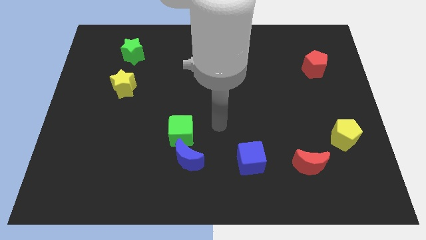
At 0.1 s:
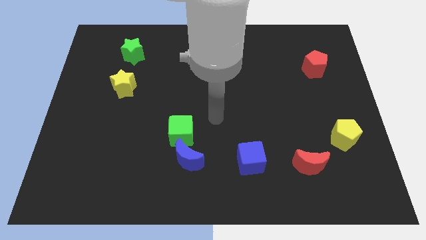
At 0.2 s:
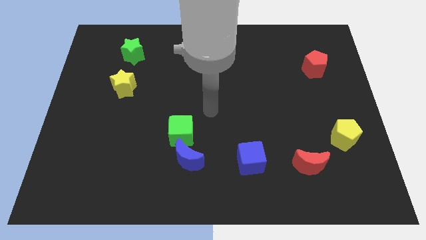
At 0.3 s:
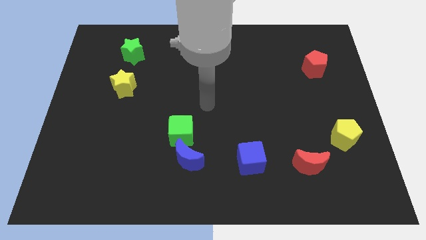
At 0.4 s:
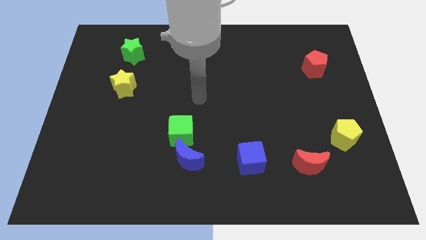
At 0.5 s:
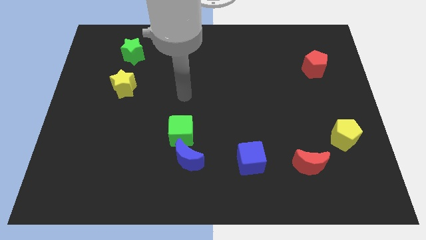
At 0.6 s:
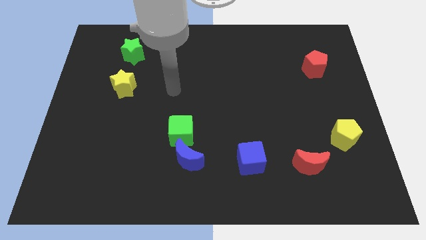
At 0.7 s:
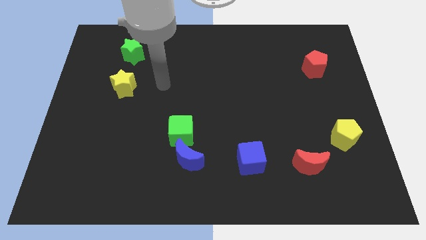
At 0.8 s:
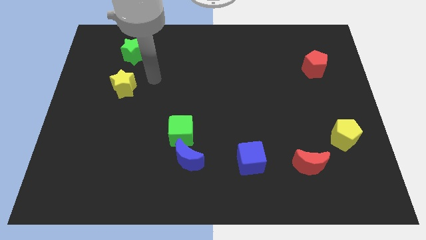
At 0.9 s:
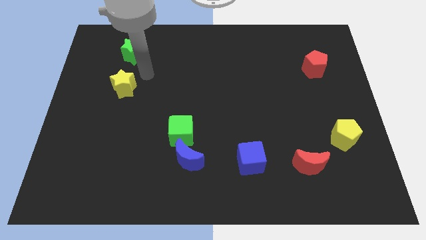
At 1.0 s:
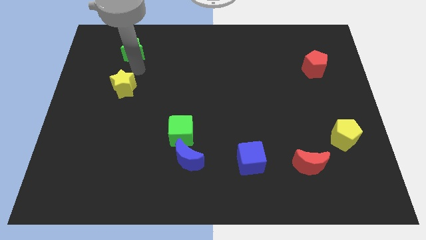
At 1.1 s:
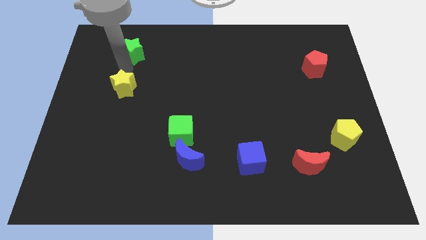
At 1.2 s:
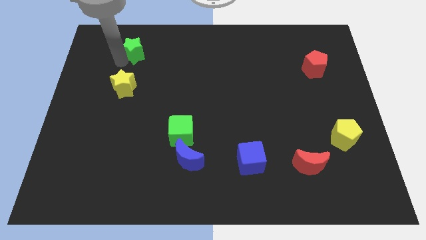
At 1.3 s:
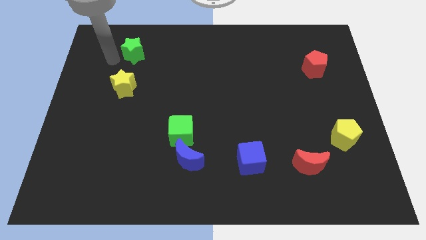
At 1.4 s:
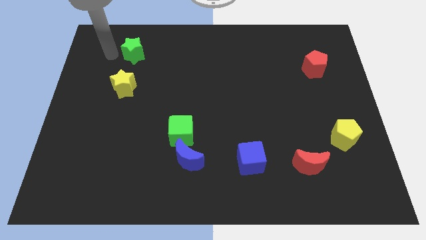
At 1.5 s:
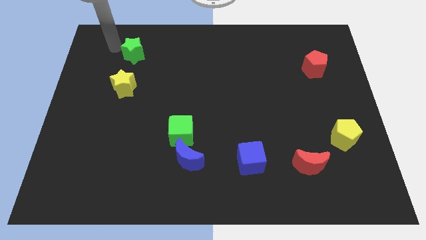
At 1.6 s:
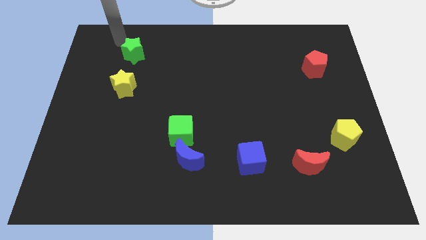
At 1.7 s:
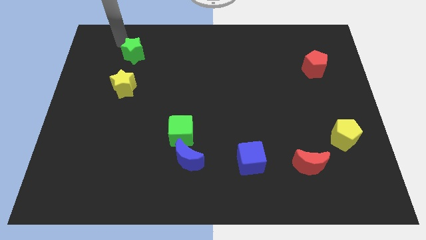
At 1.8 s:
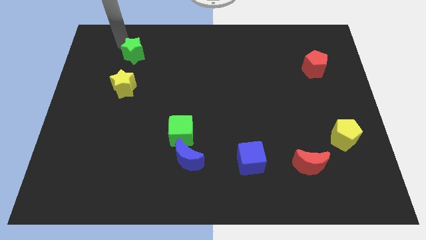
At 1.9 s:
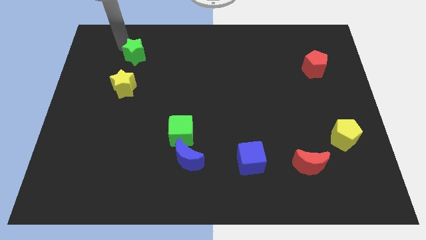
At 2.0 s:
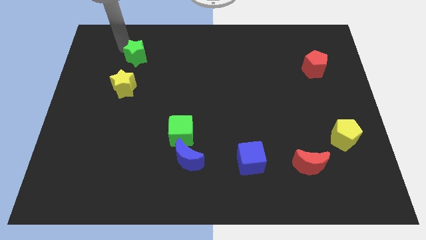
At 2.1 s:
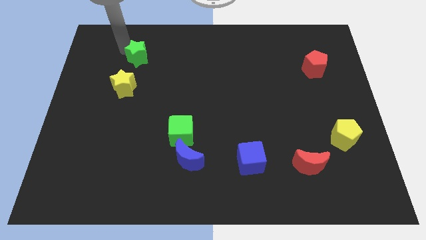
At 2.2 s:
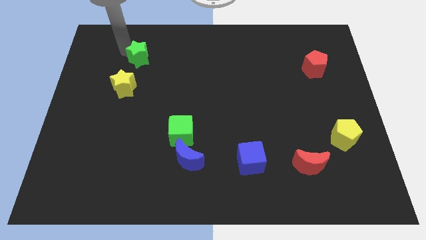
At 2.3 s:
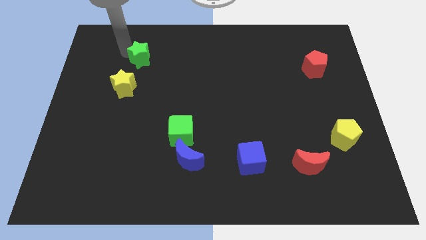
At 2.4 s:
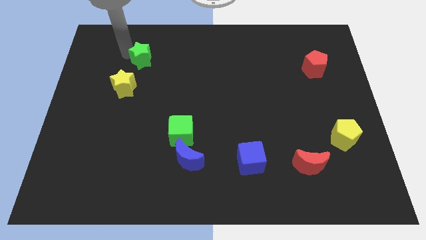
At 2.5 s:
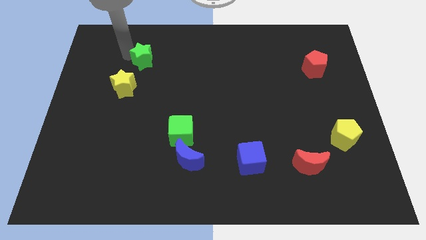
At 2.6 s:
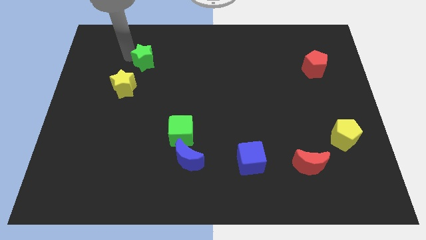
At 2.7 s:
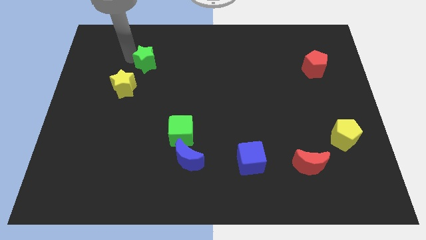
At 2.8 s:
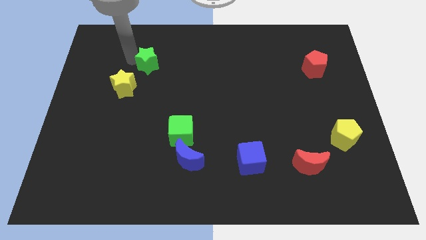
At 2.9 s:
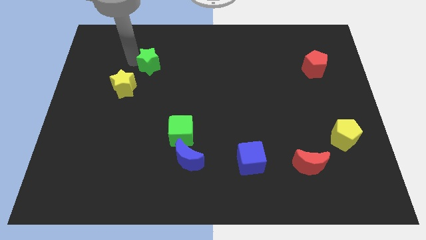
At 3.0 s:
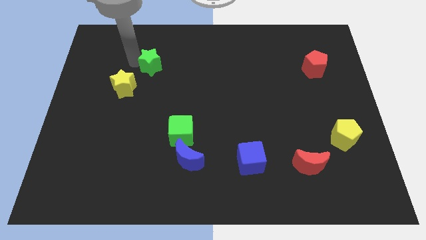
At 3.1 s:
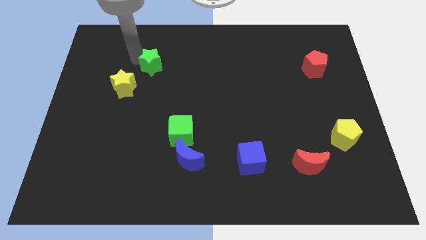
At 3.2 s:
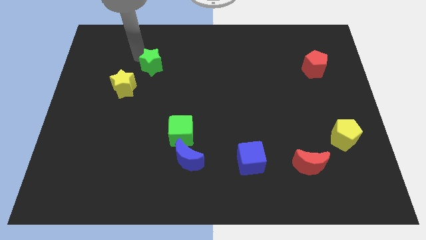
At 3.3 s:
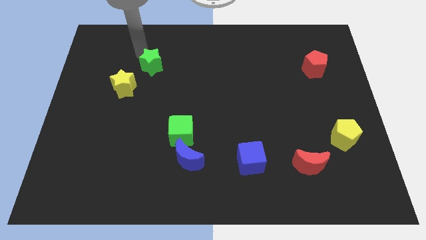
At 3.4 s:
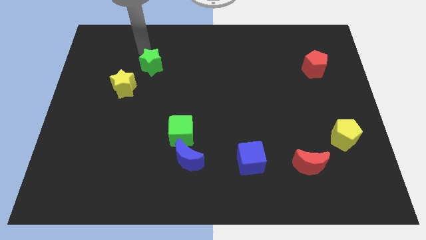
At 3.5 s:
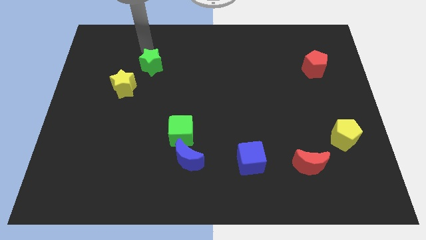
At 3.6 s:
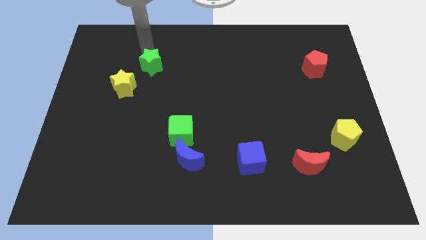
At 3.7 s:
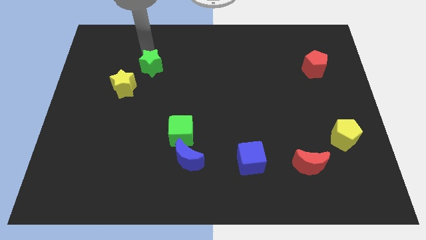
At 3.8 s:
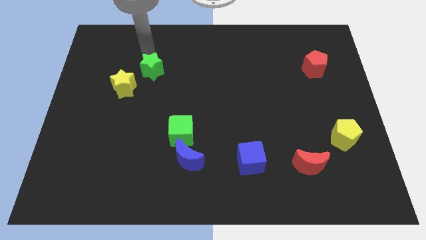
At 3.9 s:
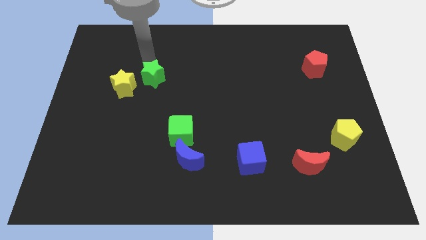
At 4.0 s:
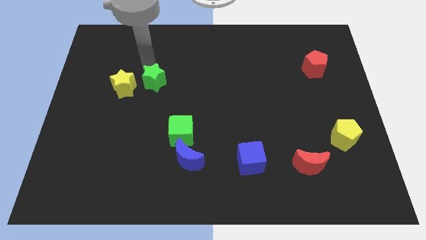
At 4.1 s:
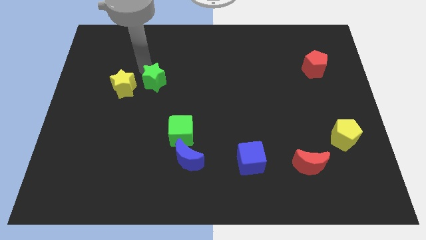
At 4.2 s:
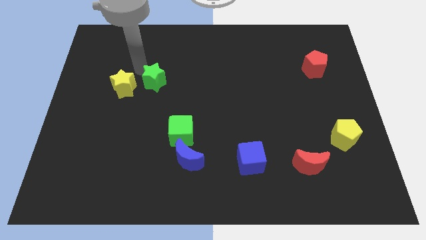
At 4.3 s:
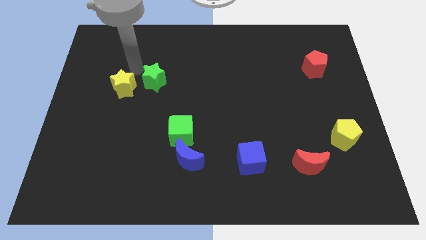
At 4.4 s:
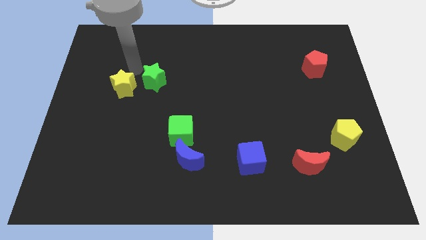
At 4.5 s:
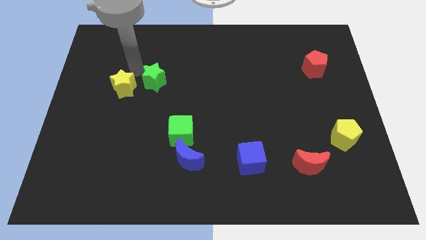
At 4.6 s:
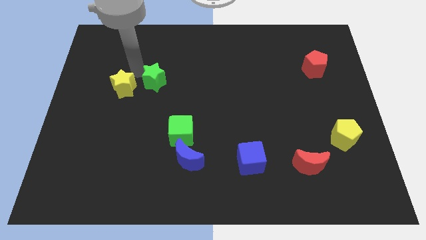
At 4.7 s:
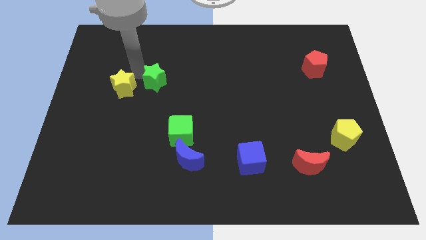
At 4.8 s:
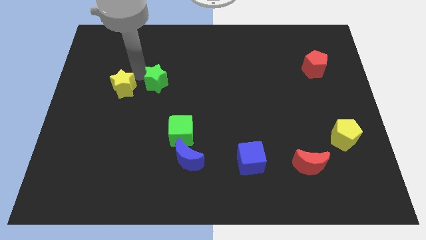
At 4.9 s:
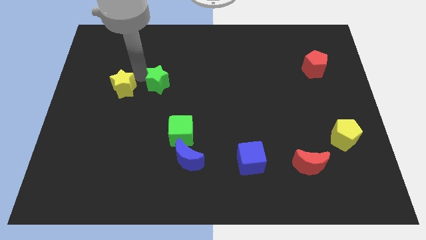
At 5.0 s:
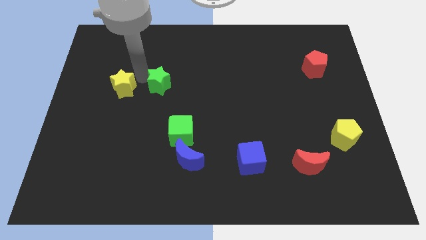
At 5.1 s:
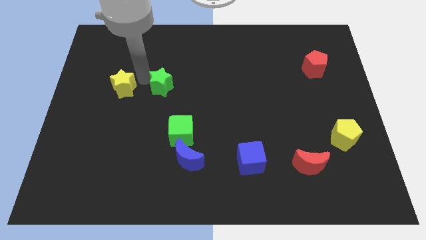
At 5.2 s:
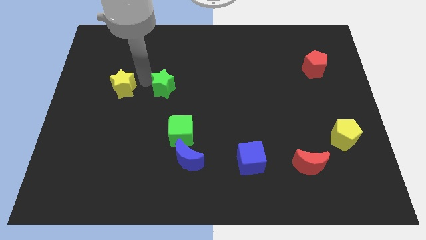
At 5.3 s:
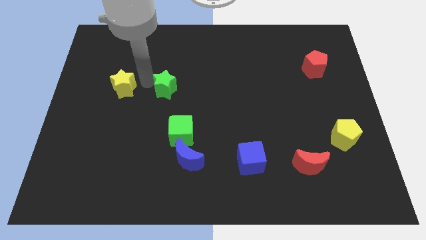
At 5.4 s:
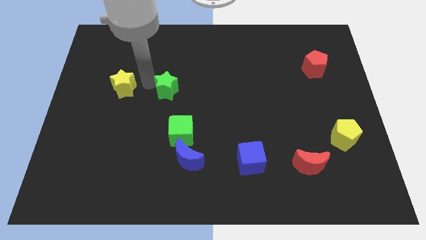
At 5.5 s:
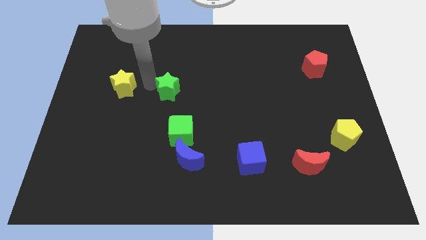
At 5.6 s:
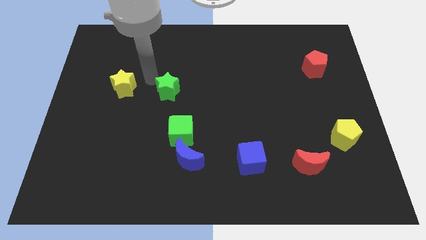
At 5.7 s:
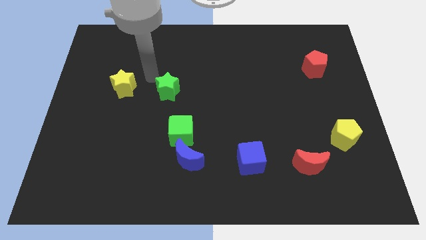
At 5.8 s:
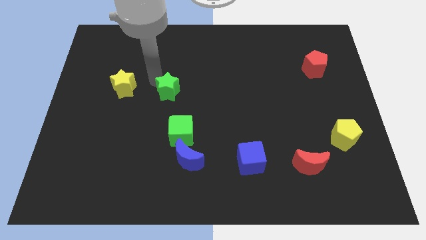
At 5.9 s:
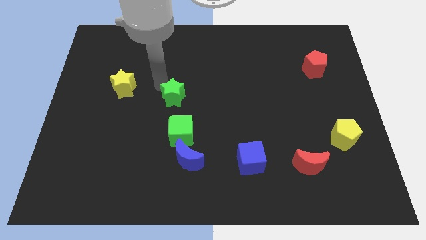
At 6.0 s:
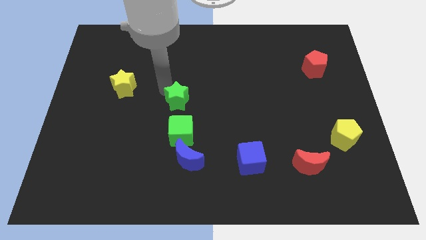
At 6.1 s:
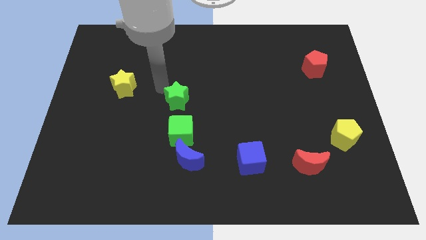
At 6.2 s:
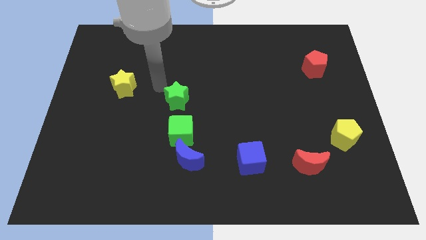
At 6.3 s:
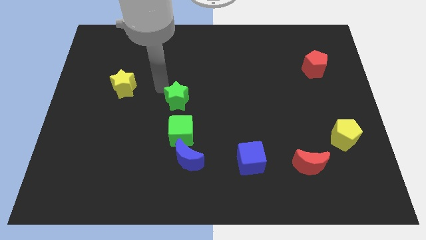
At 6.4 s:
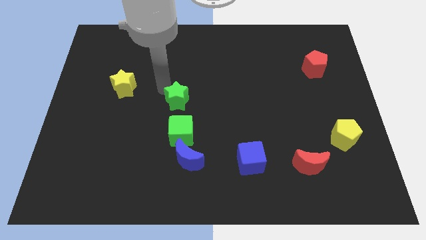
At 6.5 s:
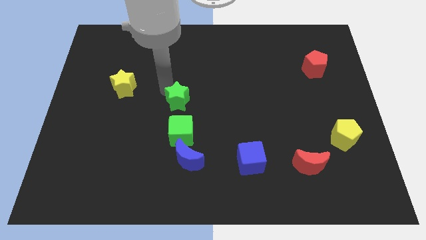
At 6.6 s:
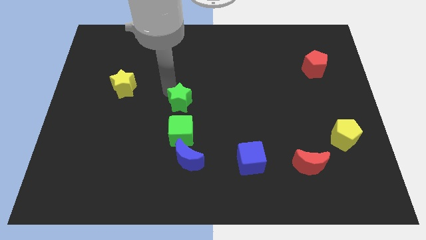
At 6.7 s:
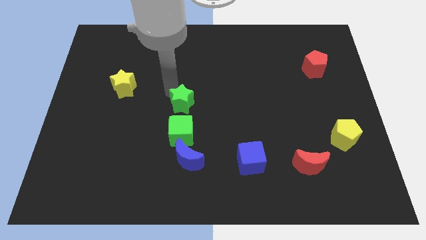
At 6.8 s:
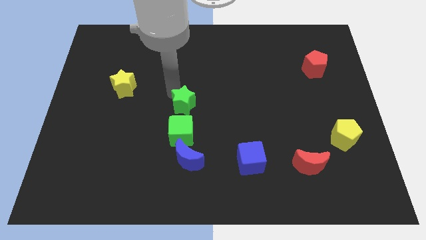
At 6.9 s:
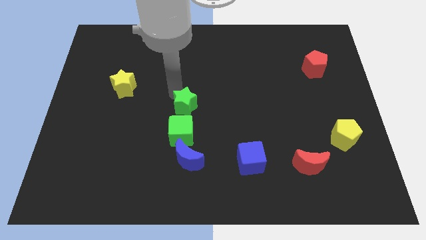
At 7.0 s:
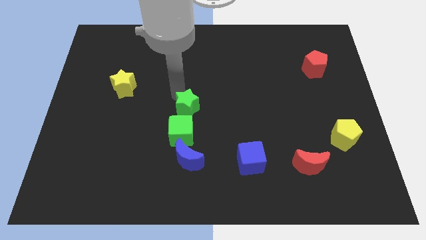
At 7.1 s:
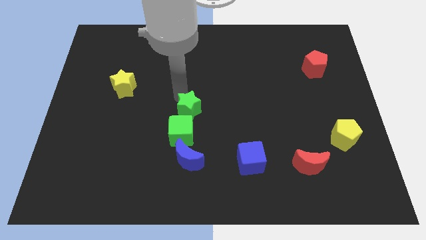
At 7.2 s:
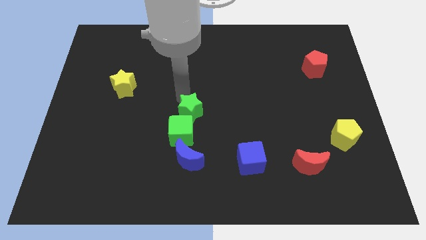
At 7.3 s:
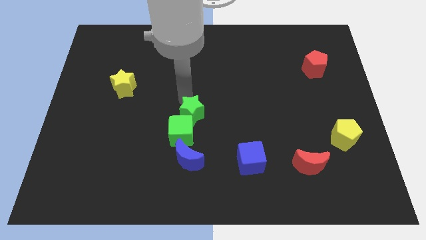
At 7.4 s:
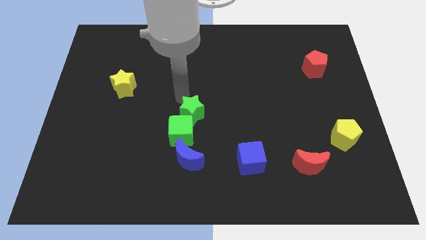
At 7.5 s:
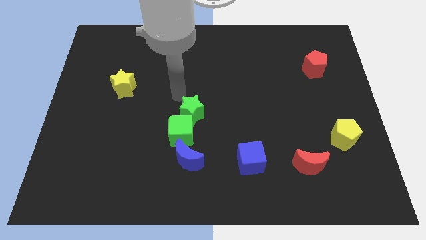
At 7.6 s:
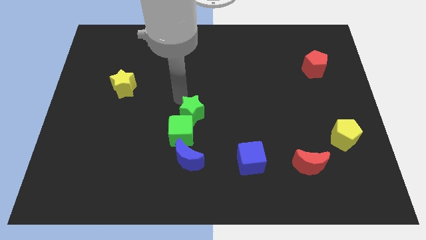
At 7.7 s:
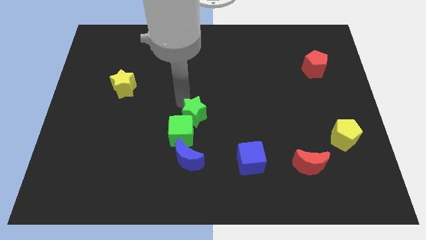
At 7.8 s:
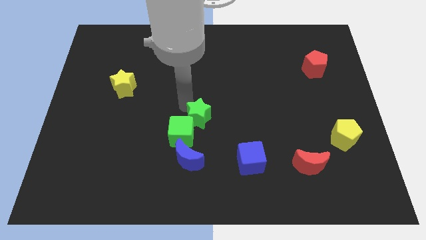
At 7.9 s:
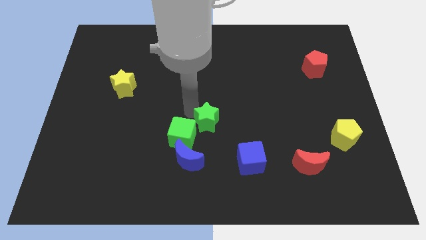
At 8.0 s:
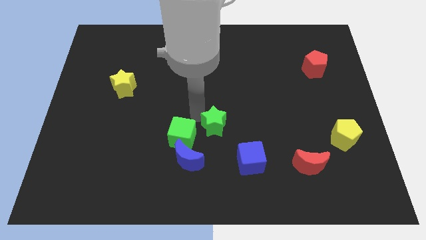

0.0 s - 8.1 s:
push the green star diagonally up and to the left of the blue cube
